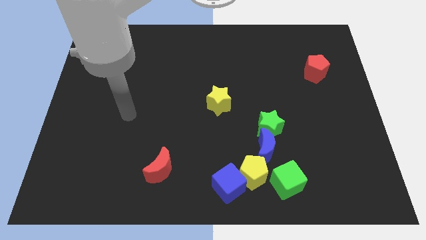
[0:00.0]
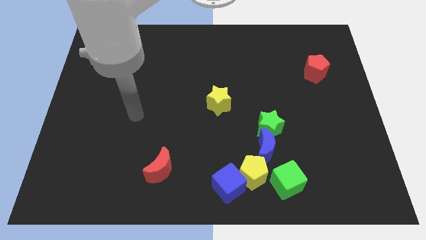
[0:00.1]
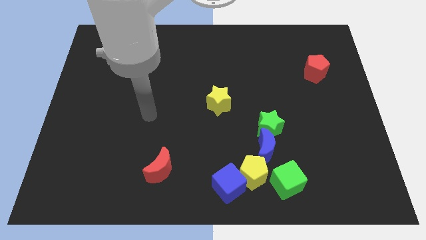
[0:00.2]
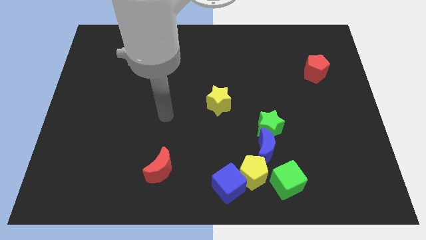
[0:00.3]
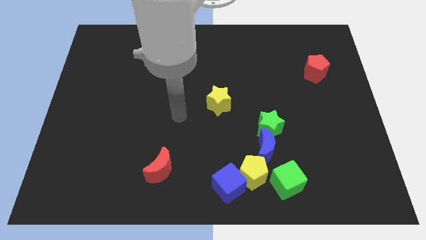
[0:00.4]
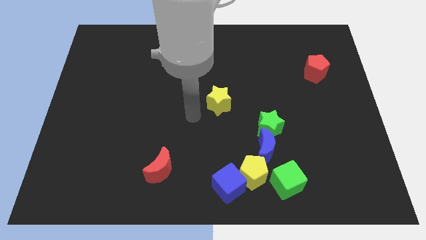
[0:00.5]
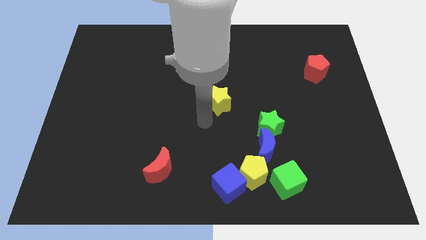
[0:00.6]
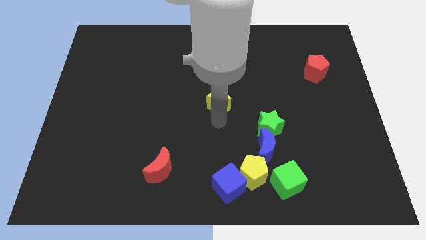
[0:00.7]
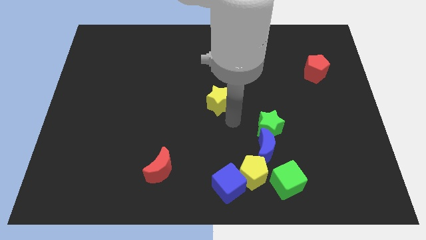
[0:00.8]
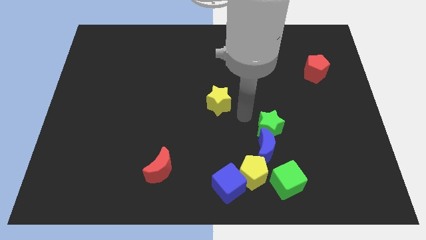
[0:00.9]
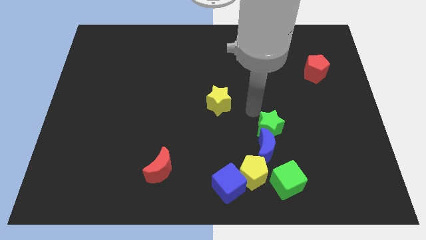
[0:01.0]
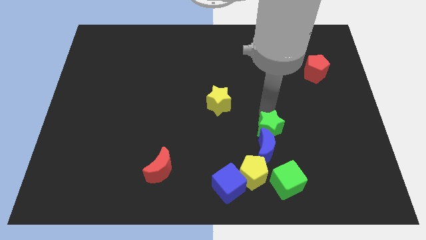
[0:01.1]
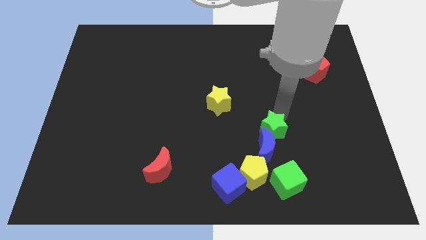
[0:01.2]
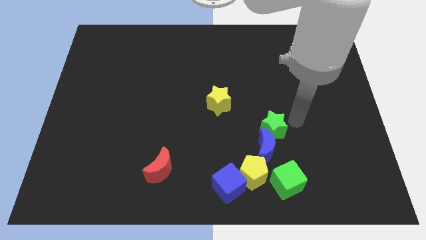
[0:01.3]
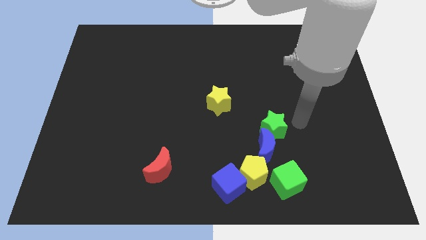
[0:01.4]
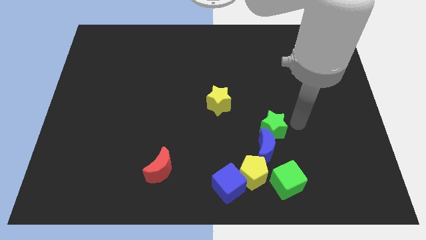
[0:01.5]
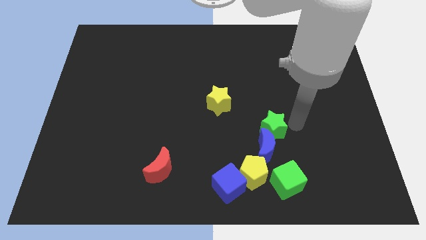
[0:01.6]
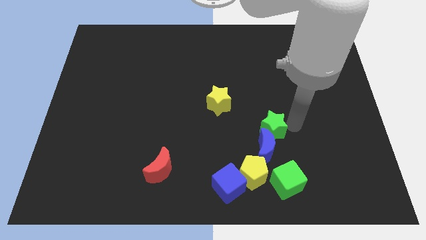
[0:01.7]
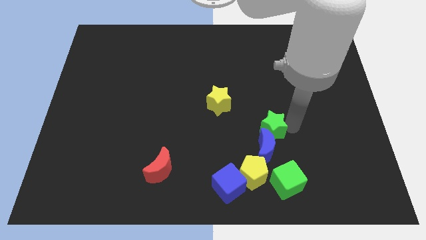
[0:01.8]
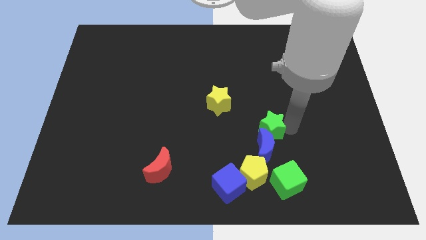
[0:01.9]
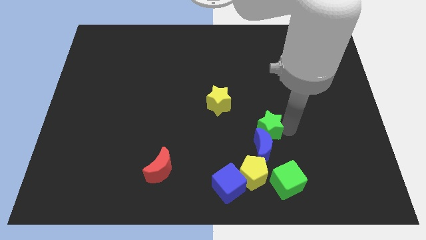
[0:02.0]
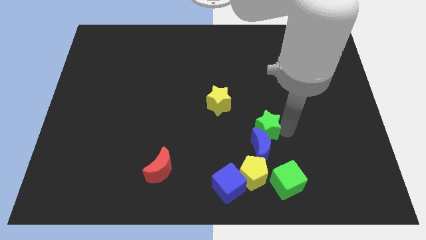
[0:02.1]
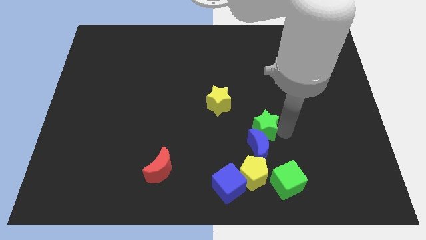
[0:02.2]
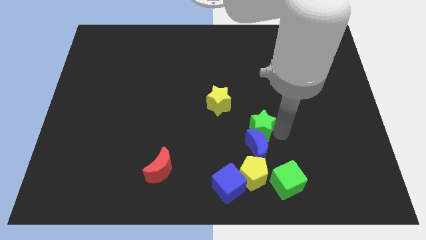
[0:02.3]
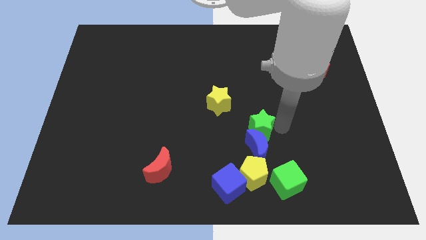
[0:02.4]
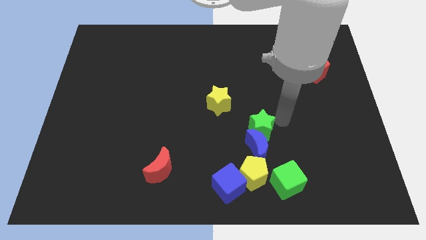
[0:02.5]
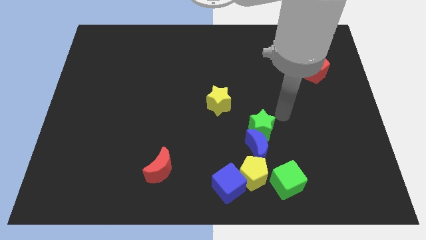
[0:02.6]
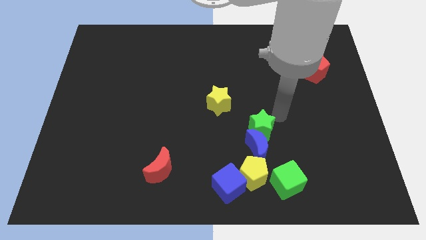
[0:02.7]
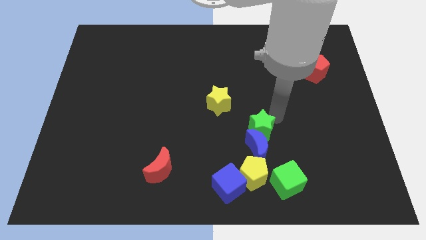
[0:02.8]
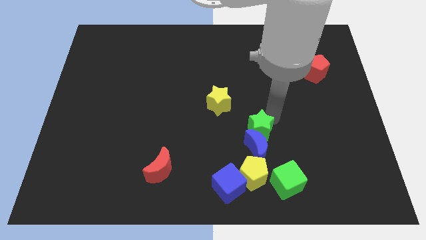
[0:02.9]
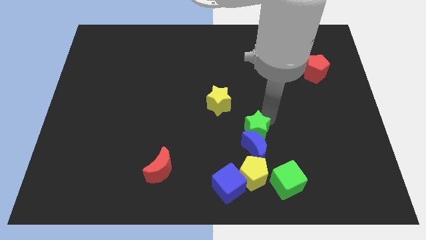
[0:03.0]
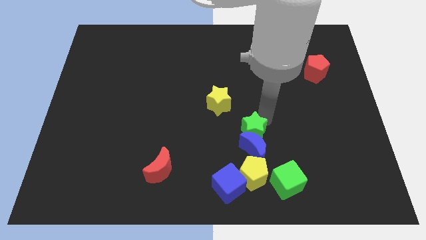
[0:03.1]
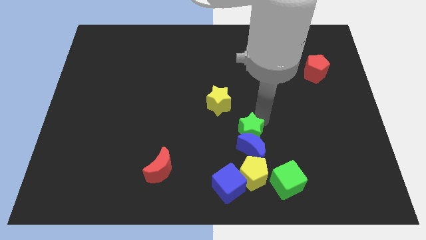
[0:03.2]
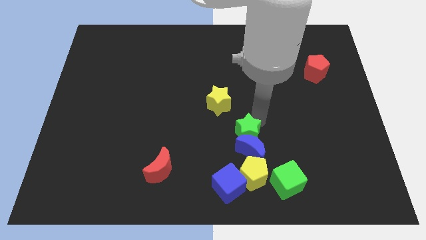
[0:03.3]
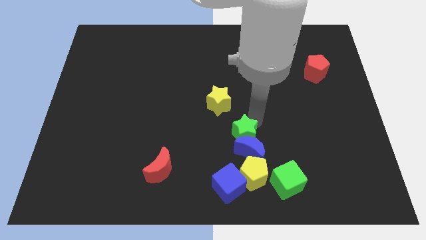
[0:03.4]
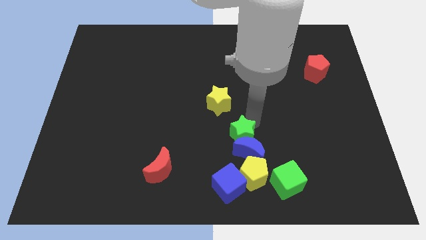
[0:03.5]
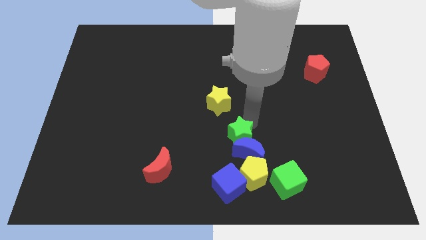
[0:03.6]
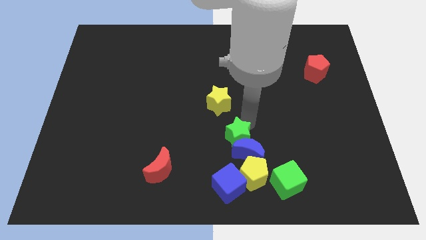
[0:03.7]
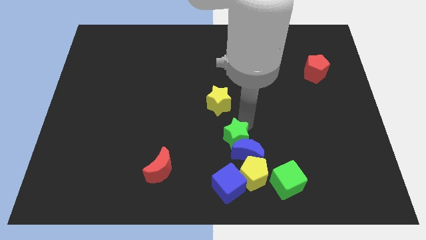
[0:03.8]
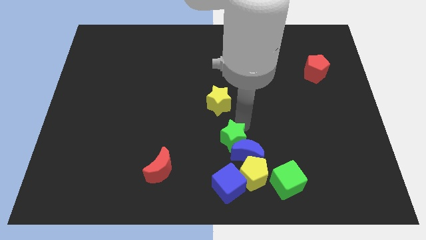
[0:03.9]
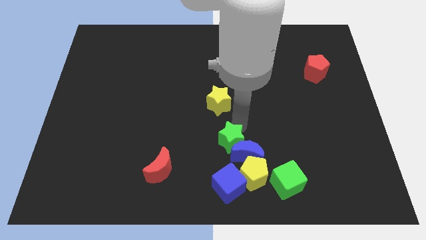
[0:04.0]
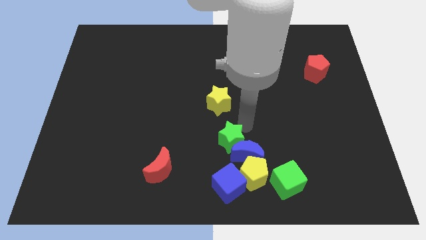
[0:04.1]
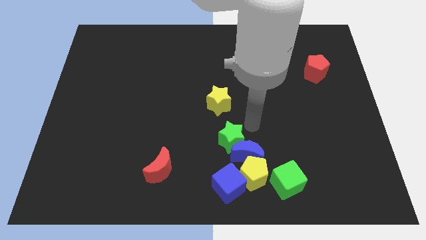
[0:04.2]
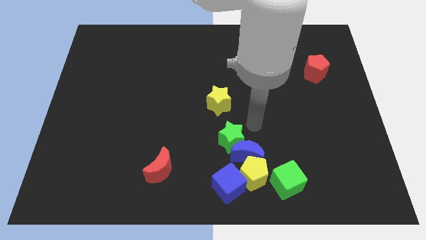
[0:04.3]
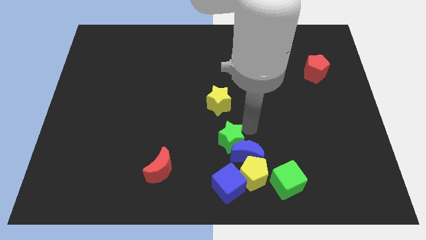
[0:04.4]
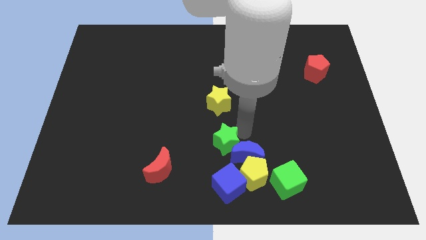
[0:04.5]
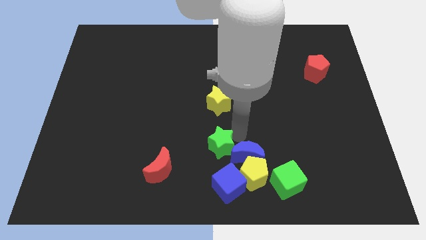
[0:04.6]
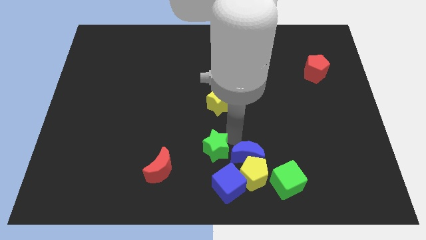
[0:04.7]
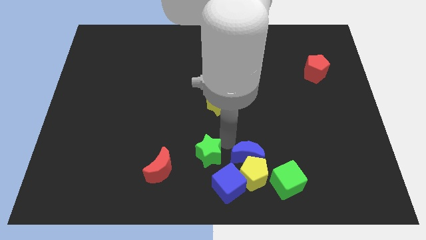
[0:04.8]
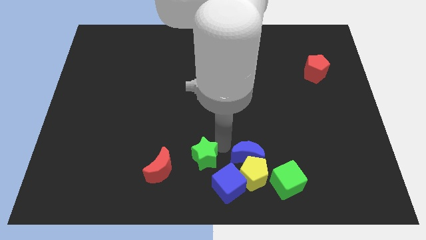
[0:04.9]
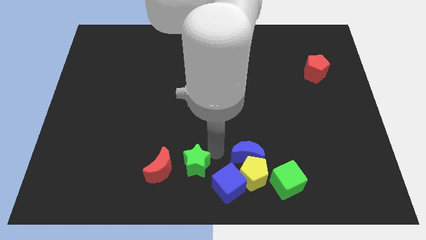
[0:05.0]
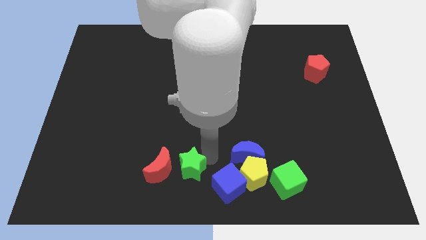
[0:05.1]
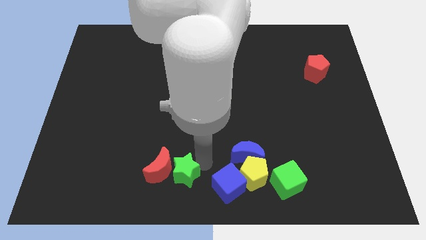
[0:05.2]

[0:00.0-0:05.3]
put the green star next to the red moon
